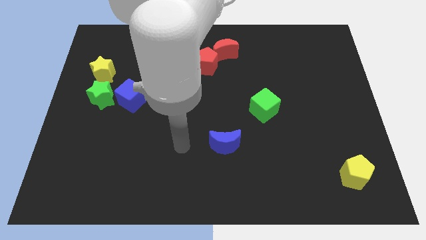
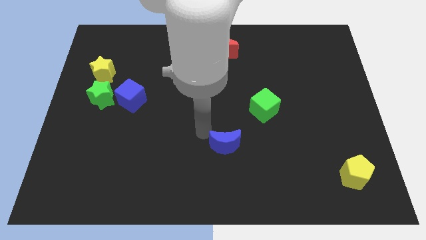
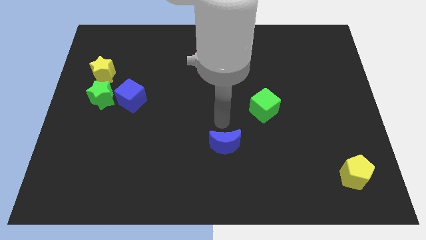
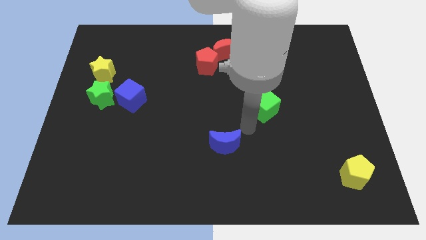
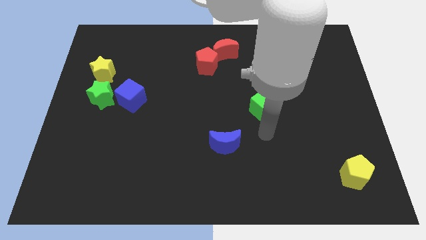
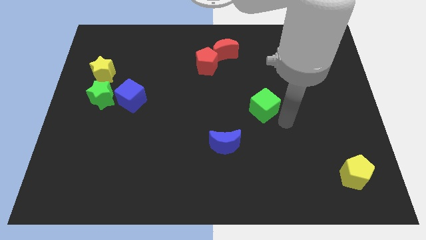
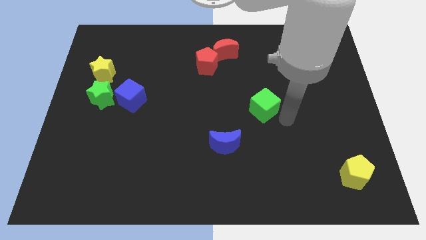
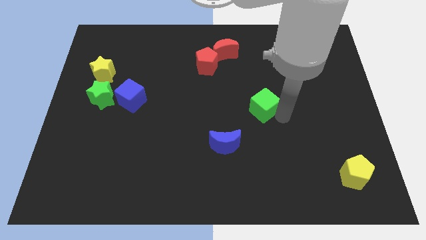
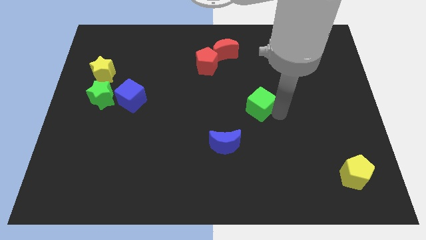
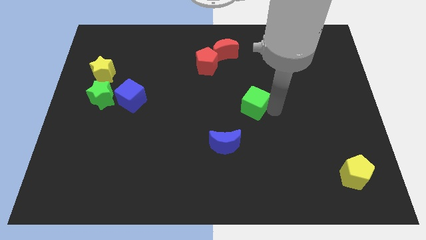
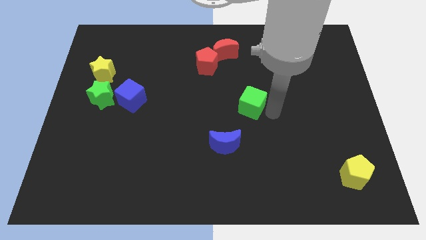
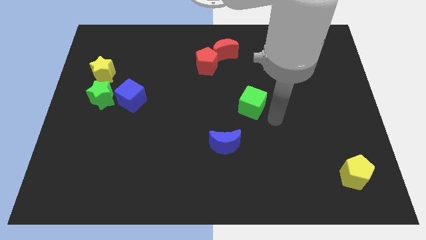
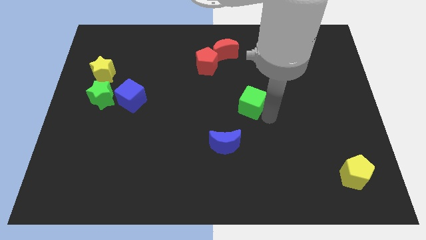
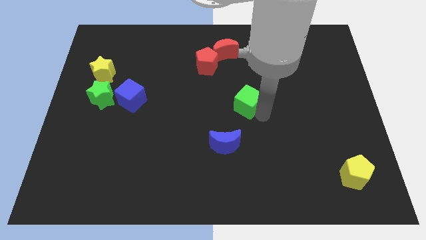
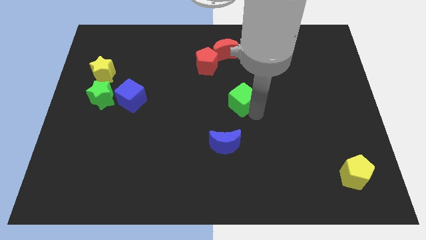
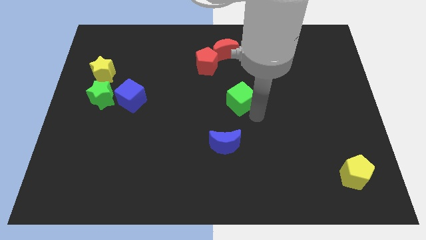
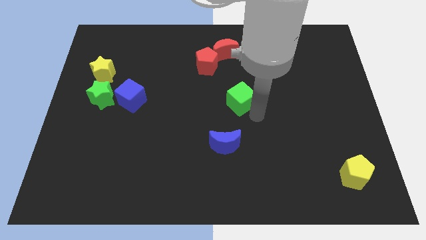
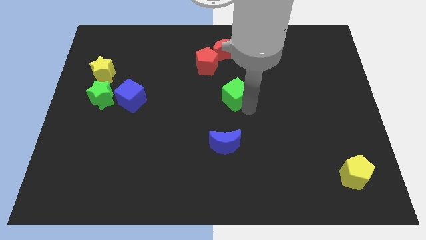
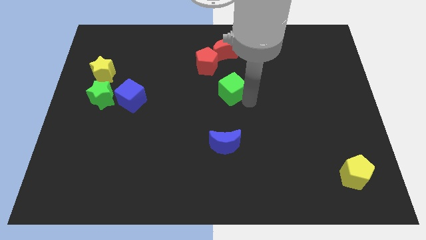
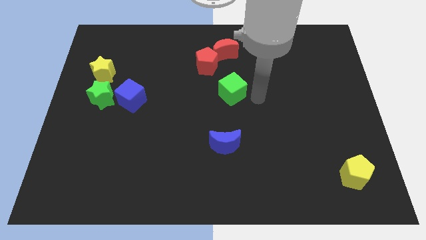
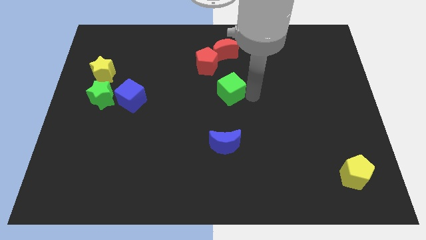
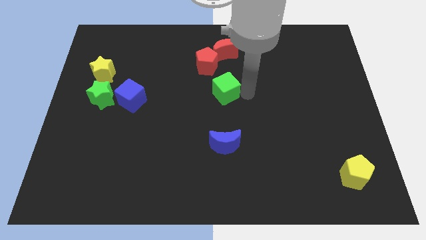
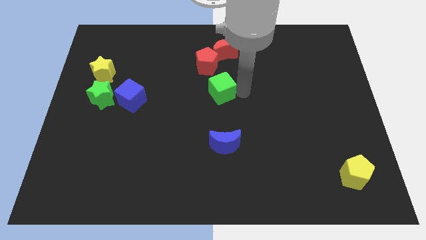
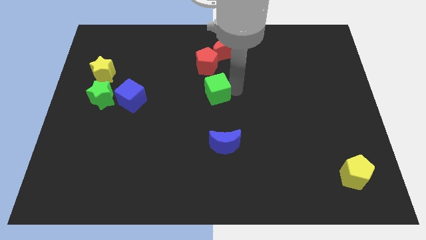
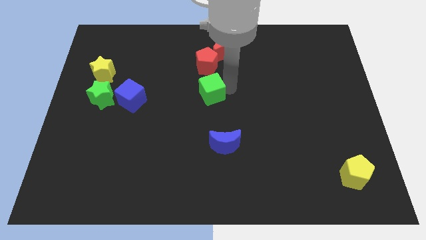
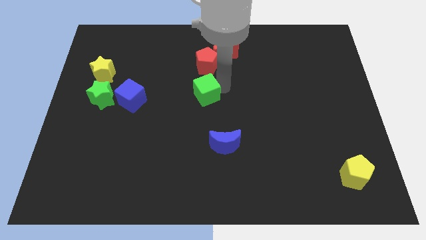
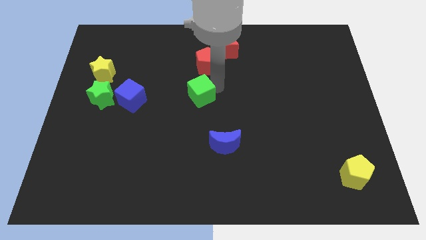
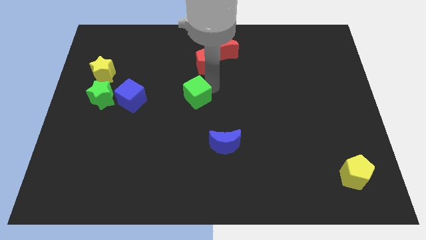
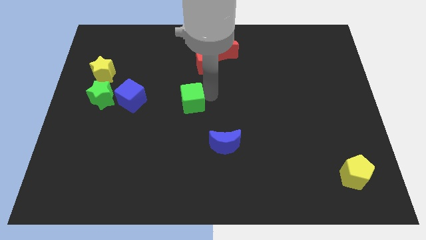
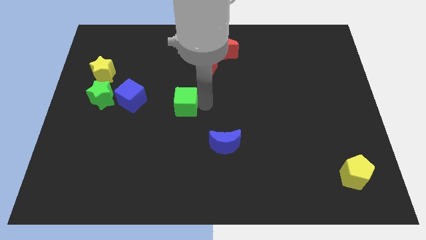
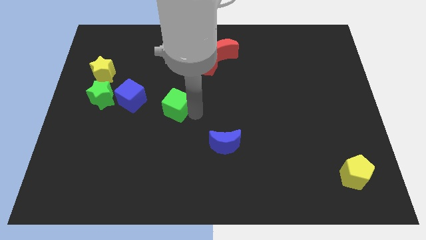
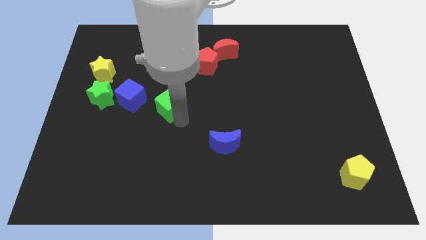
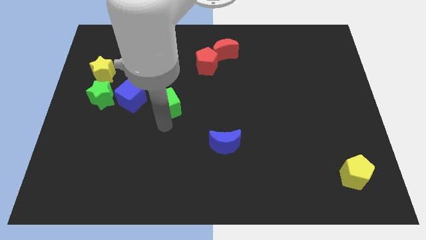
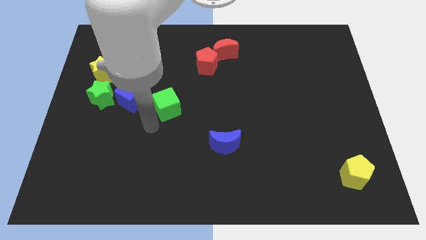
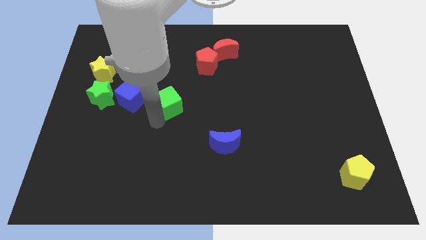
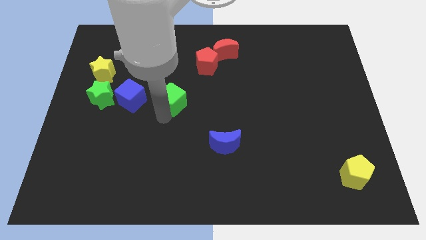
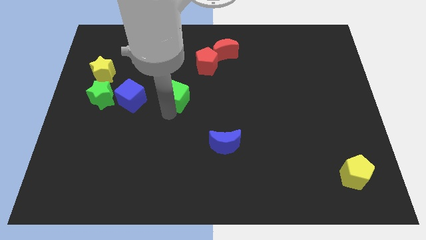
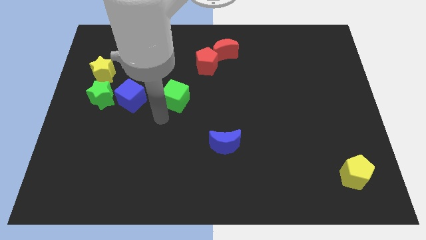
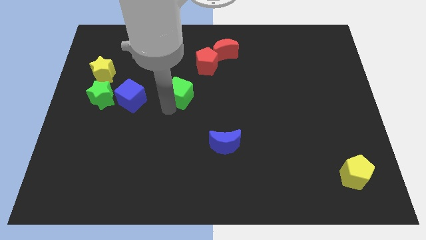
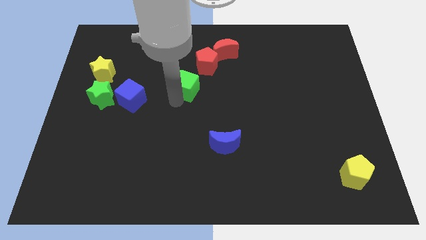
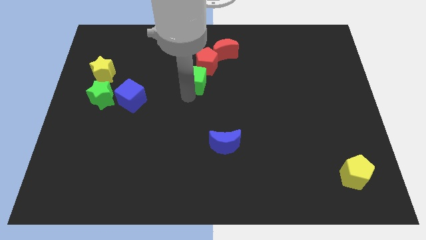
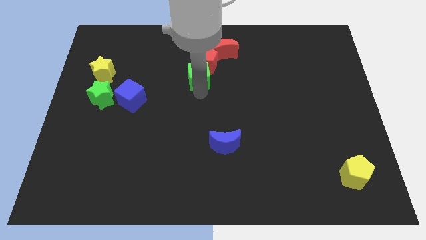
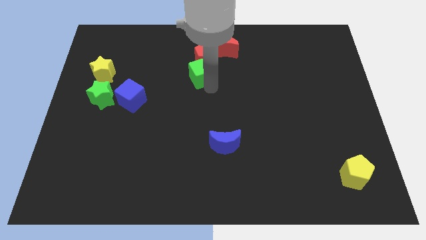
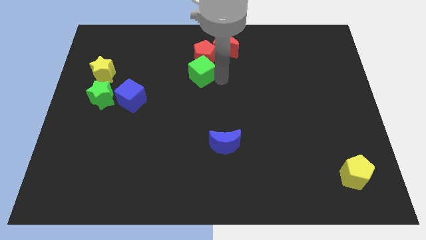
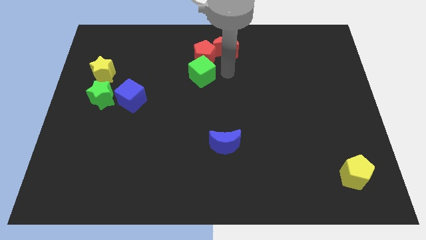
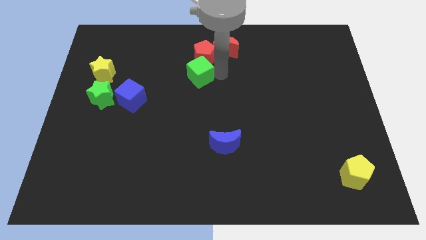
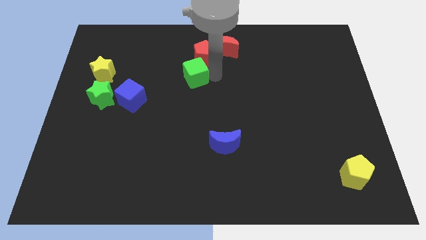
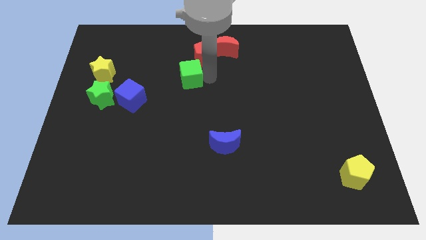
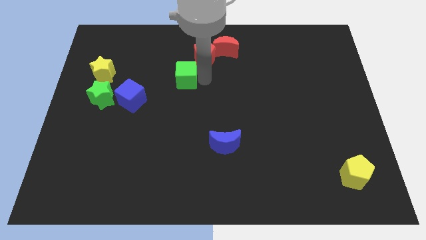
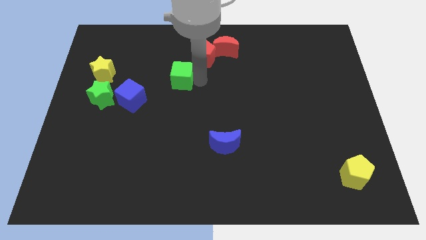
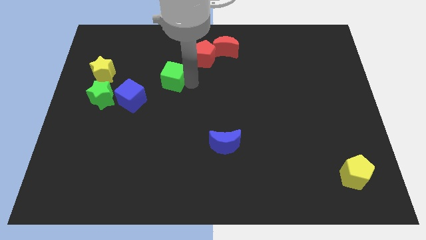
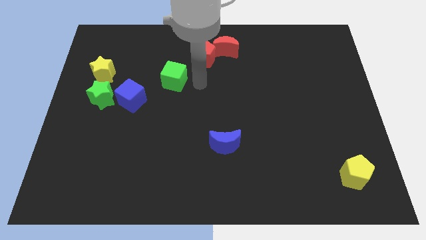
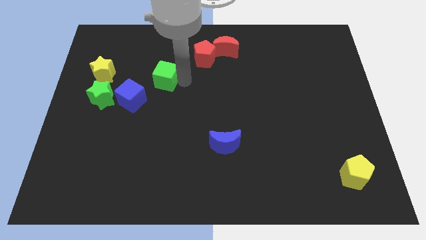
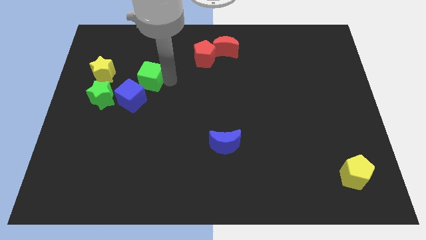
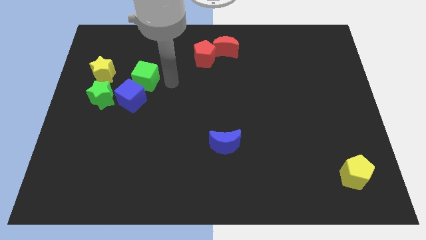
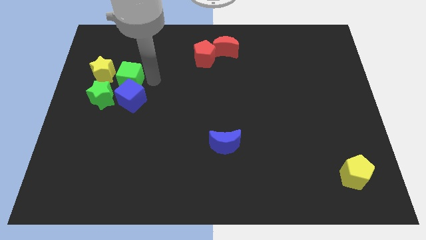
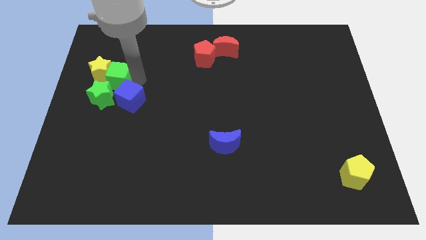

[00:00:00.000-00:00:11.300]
push the green cube next to the yellow star

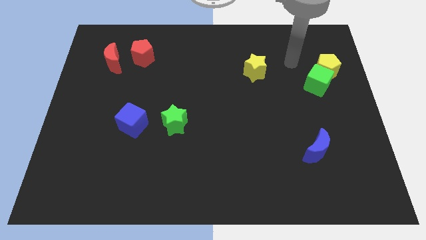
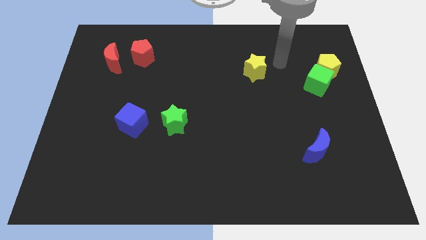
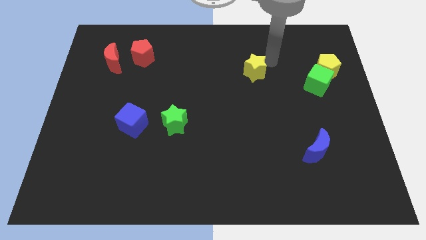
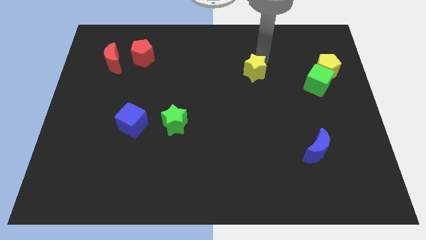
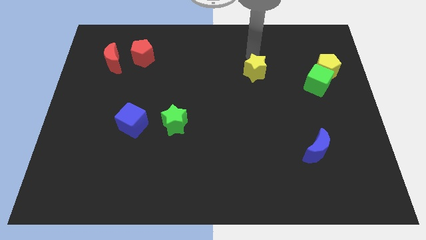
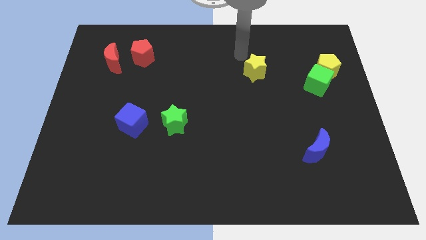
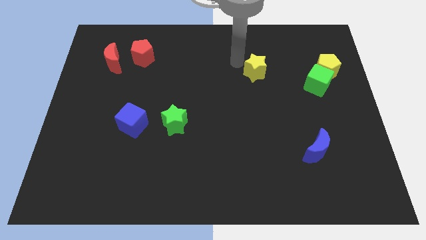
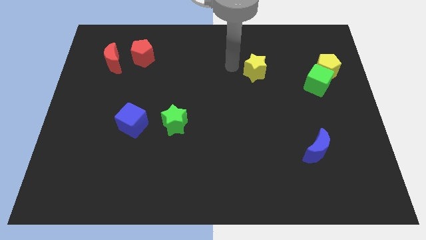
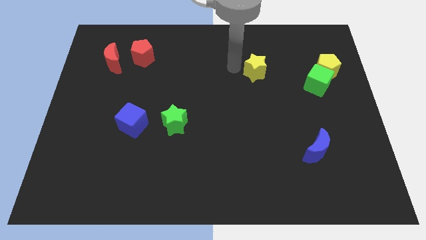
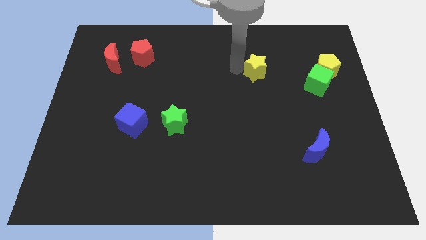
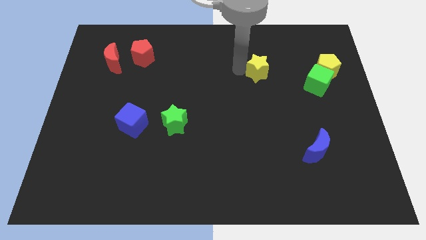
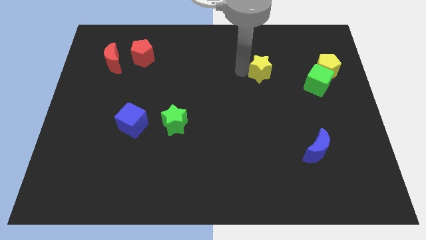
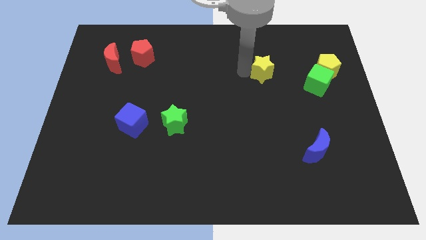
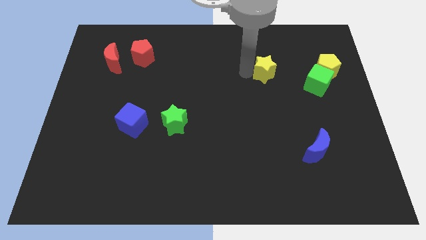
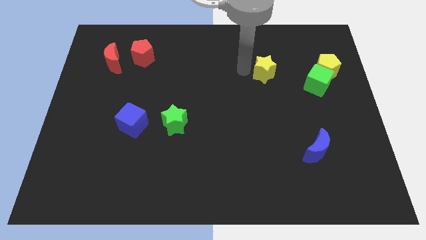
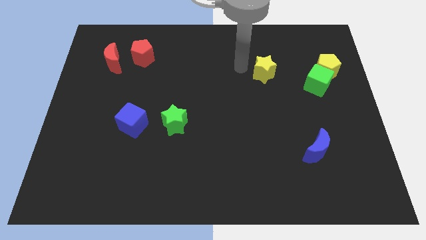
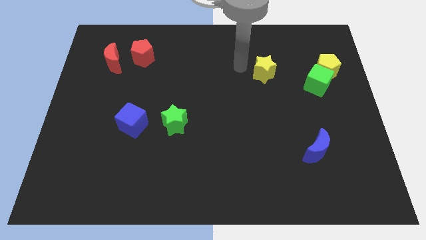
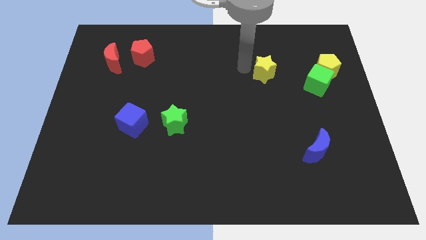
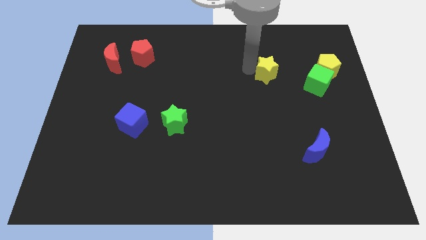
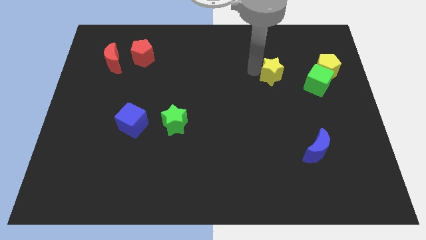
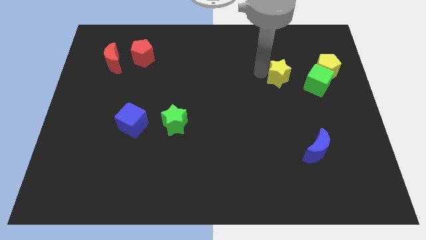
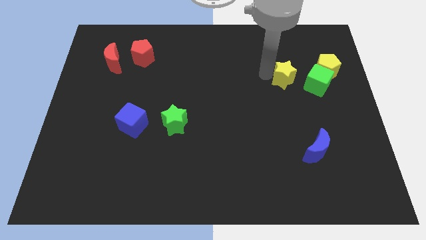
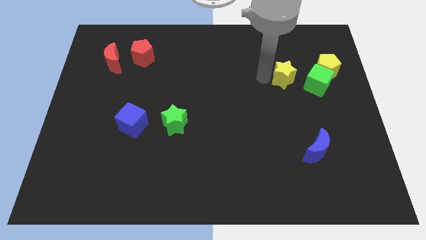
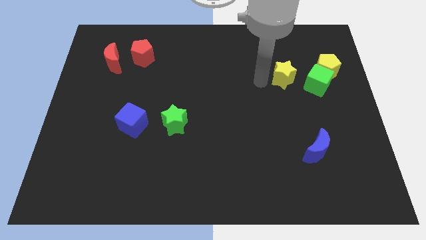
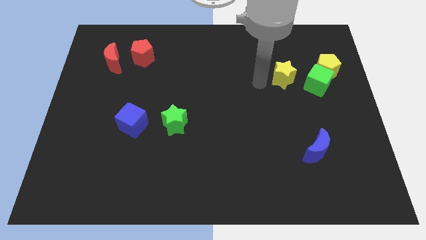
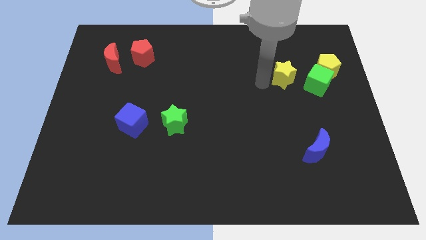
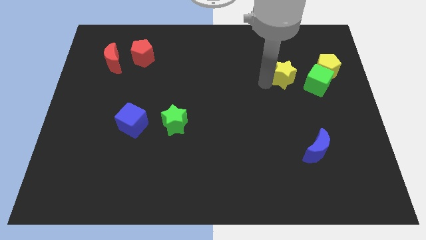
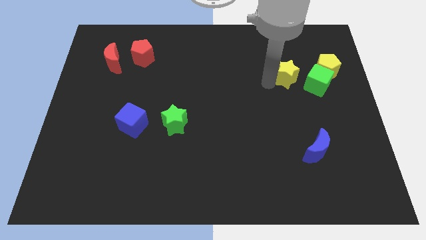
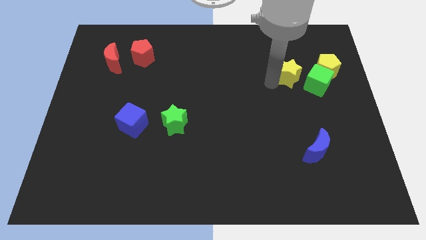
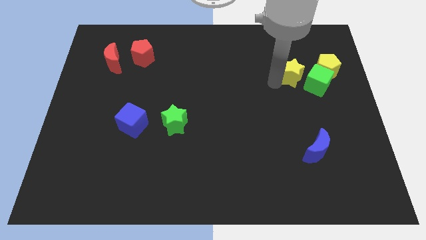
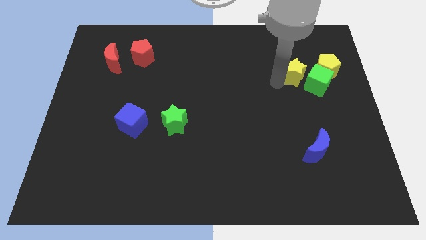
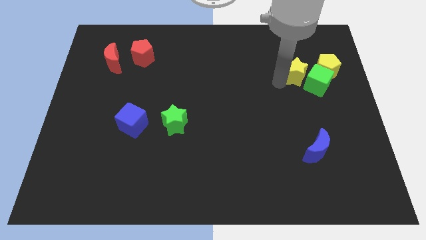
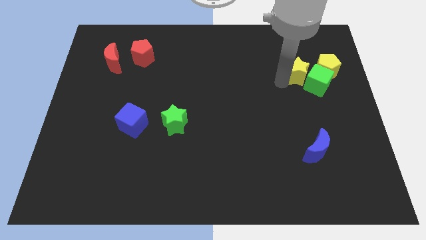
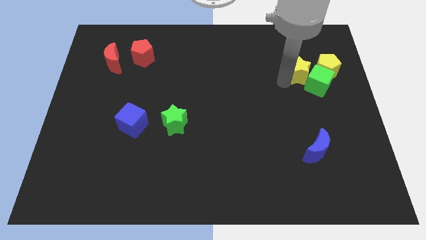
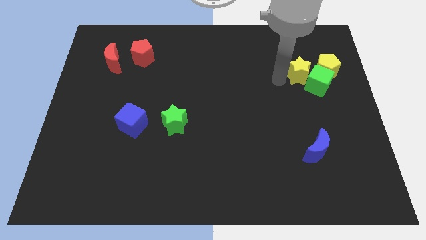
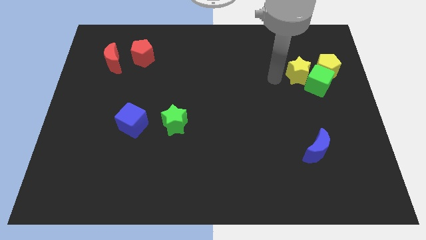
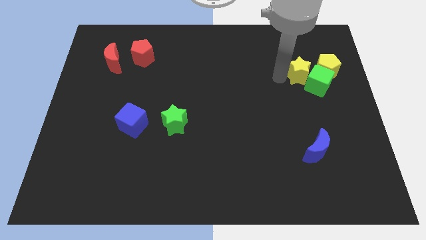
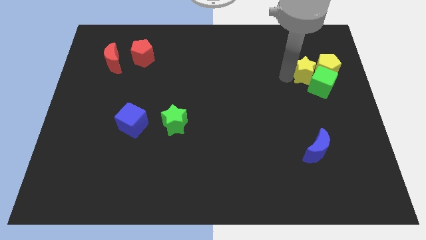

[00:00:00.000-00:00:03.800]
slide the yellow star towards the yellow pentagon
